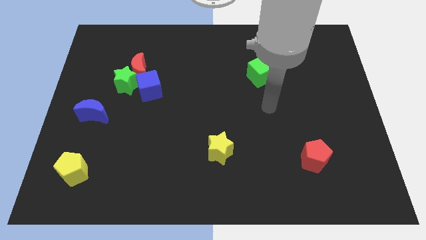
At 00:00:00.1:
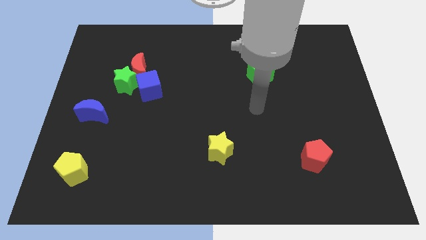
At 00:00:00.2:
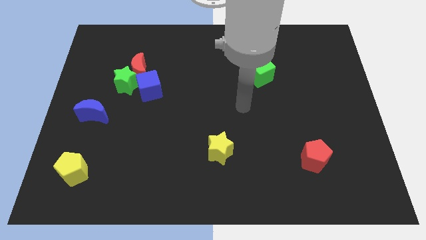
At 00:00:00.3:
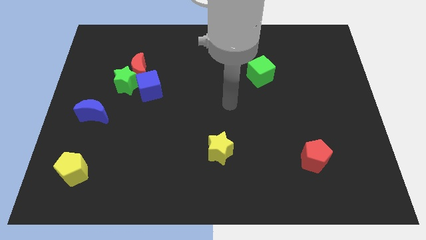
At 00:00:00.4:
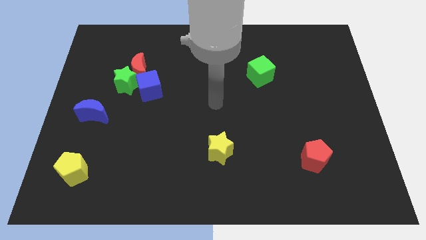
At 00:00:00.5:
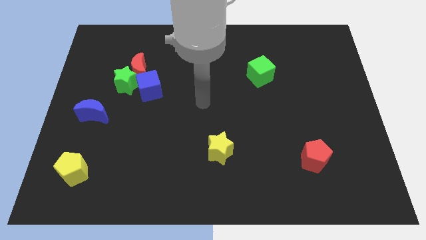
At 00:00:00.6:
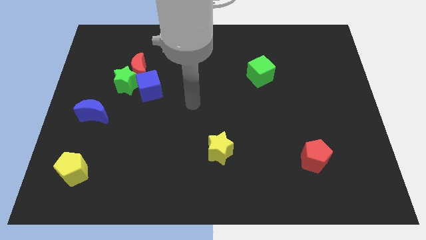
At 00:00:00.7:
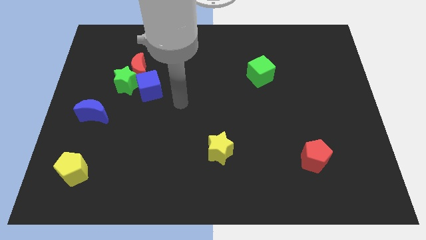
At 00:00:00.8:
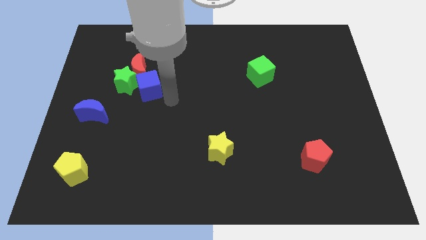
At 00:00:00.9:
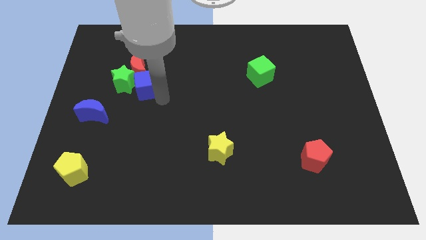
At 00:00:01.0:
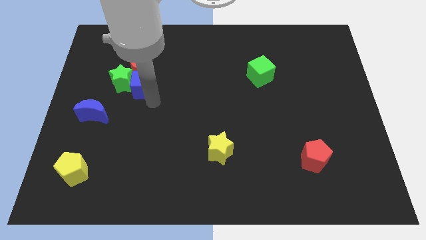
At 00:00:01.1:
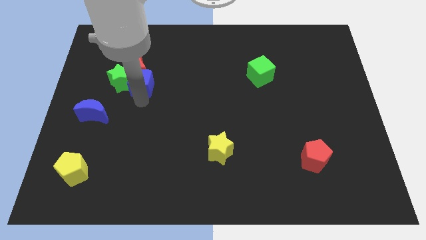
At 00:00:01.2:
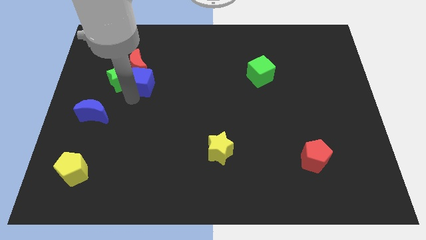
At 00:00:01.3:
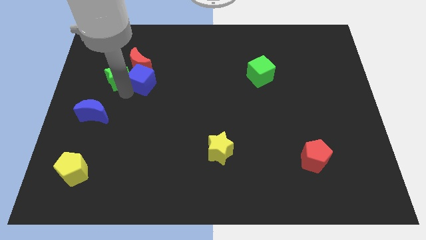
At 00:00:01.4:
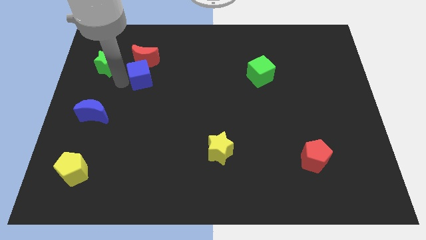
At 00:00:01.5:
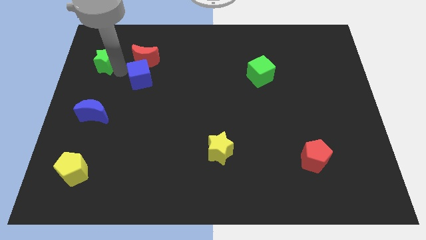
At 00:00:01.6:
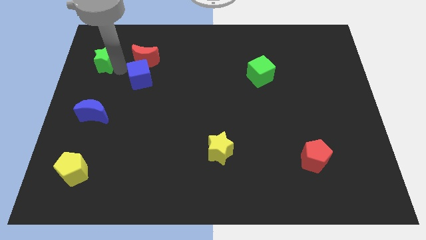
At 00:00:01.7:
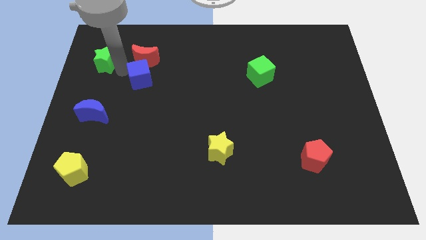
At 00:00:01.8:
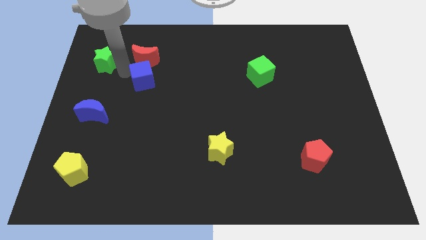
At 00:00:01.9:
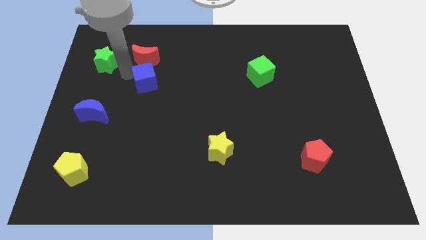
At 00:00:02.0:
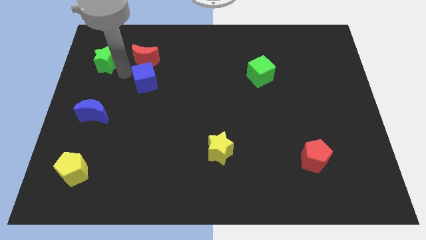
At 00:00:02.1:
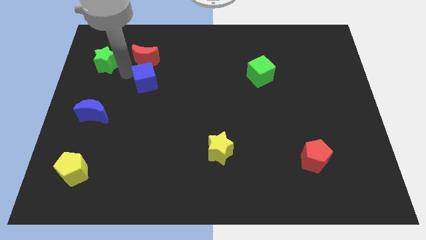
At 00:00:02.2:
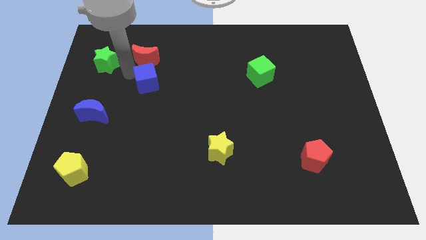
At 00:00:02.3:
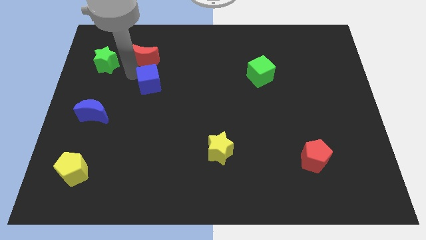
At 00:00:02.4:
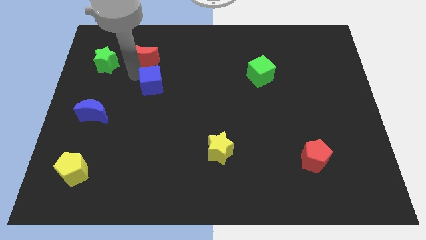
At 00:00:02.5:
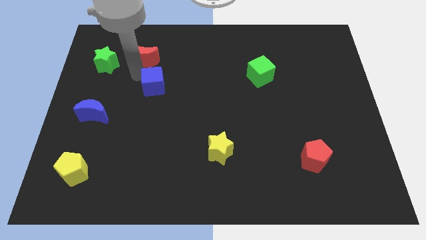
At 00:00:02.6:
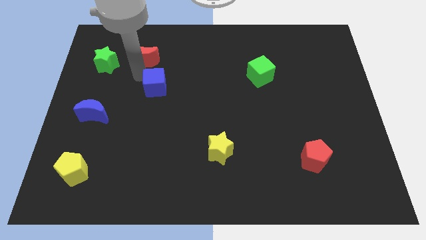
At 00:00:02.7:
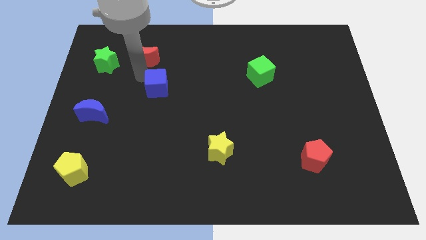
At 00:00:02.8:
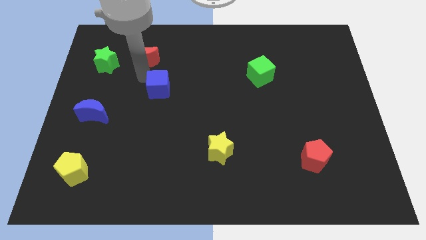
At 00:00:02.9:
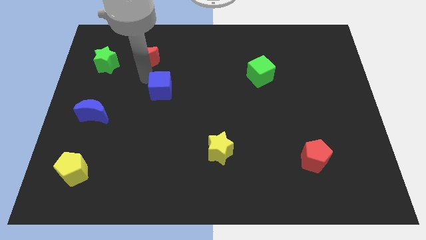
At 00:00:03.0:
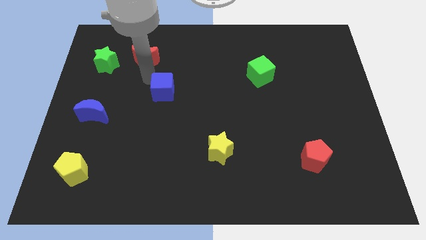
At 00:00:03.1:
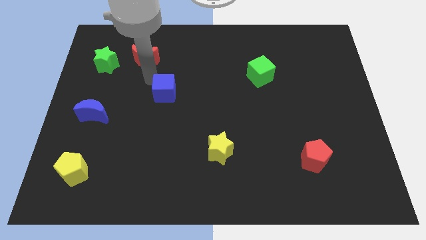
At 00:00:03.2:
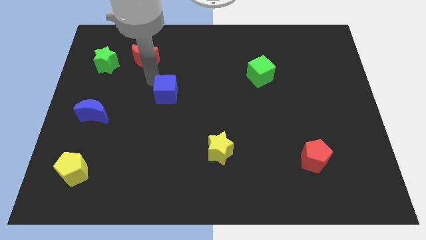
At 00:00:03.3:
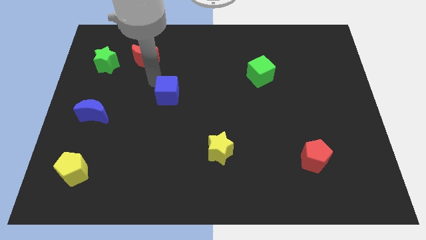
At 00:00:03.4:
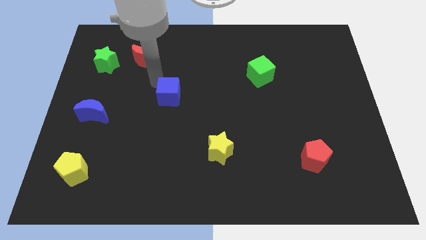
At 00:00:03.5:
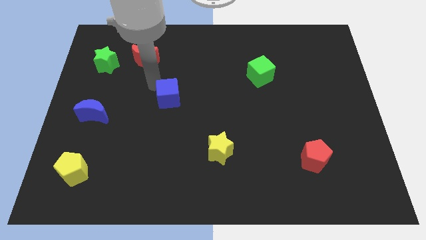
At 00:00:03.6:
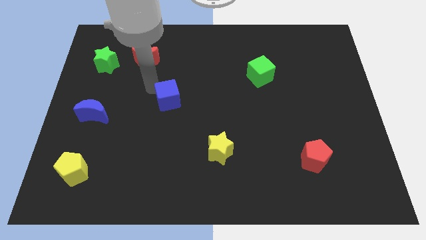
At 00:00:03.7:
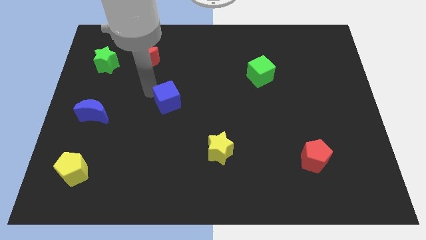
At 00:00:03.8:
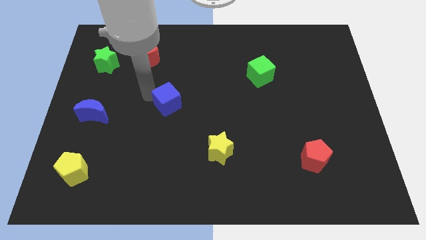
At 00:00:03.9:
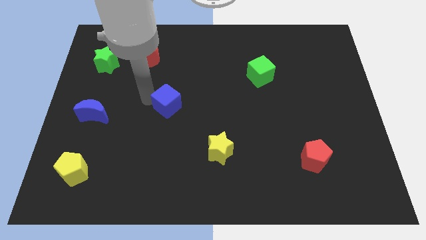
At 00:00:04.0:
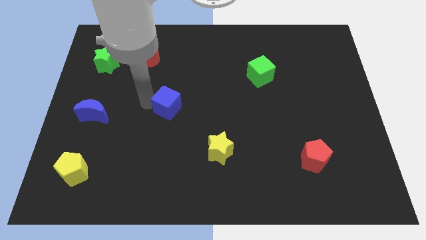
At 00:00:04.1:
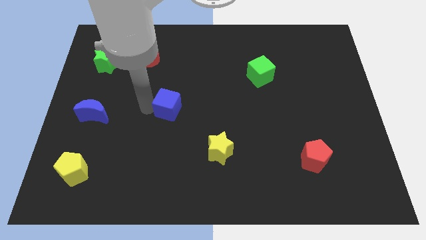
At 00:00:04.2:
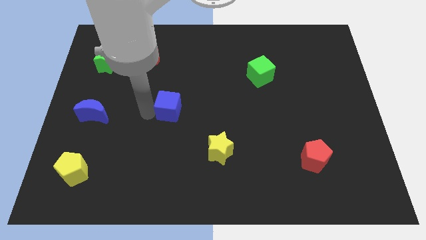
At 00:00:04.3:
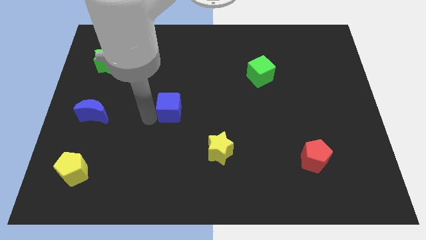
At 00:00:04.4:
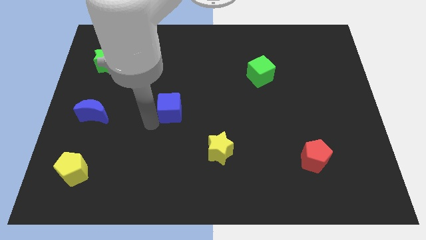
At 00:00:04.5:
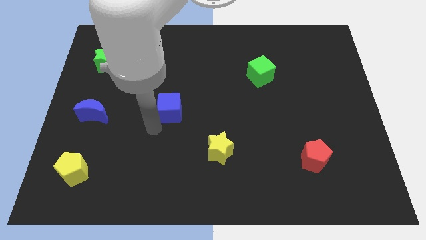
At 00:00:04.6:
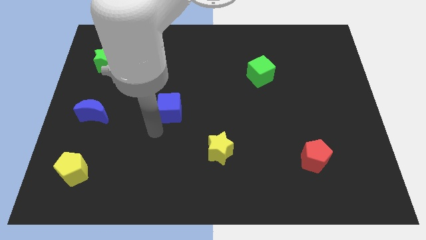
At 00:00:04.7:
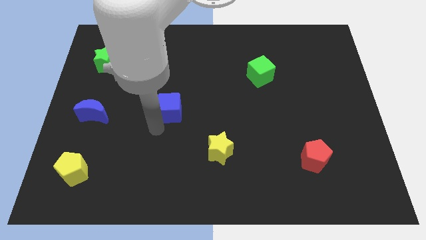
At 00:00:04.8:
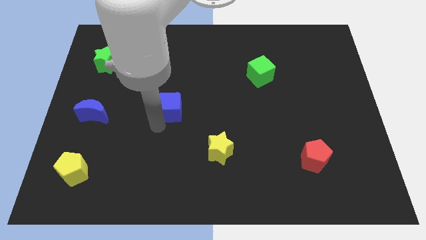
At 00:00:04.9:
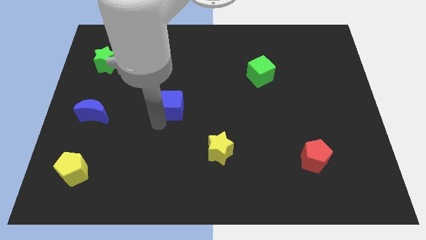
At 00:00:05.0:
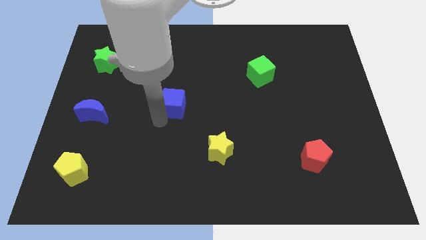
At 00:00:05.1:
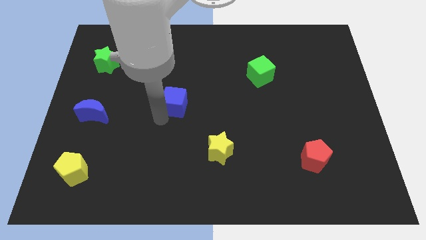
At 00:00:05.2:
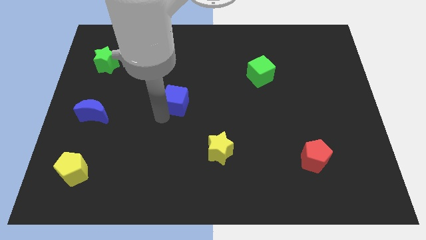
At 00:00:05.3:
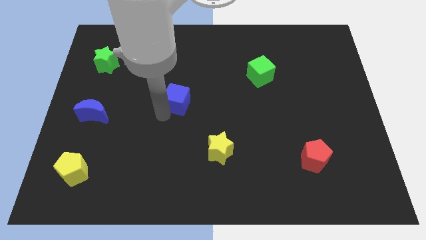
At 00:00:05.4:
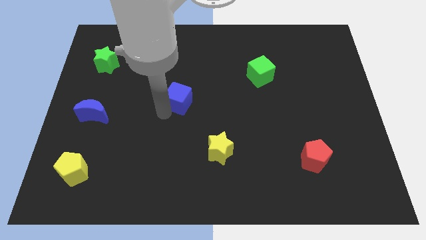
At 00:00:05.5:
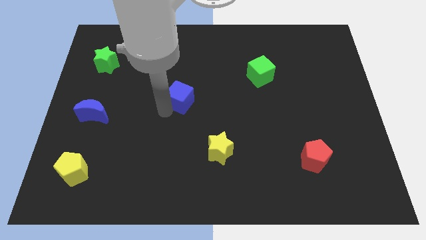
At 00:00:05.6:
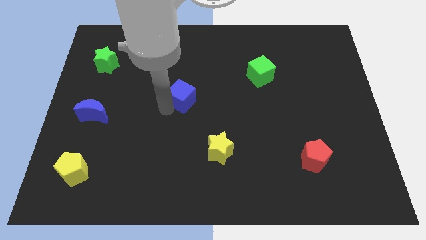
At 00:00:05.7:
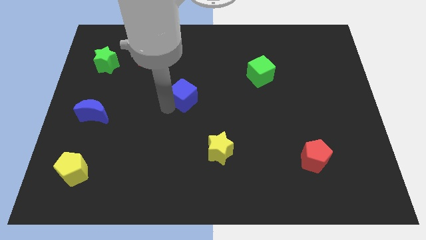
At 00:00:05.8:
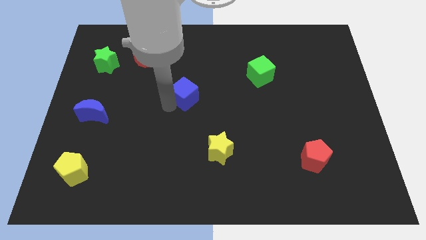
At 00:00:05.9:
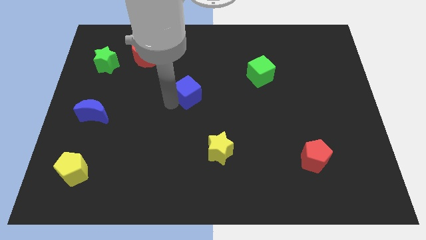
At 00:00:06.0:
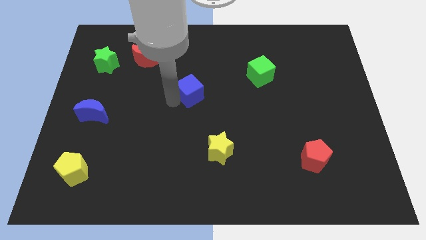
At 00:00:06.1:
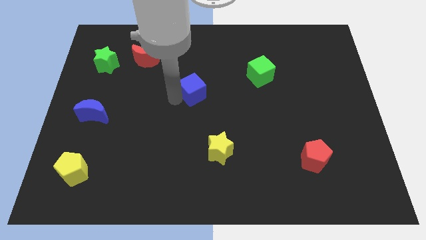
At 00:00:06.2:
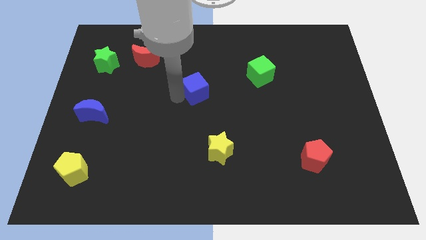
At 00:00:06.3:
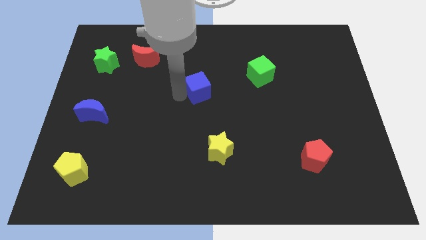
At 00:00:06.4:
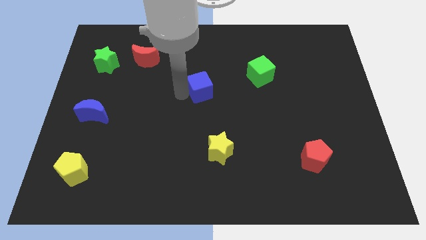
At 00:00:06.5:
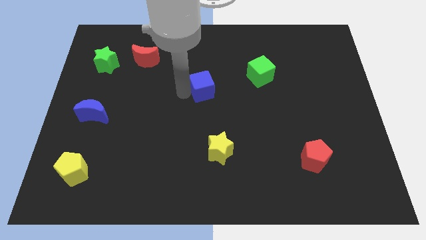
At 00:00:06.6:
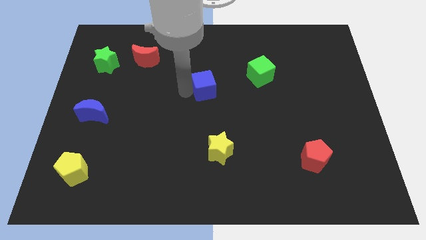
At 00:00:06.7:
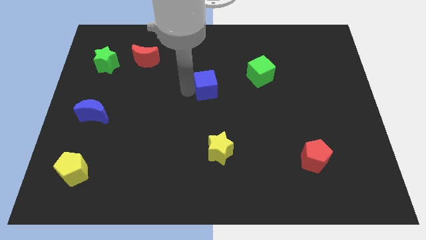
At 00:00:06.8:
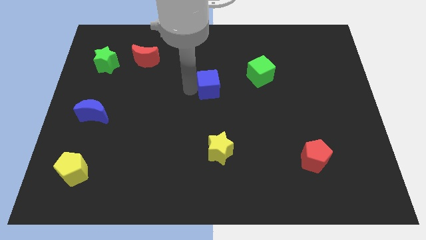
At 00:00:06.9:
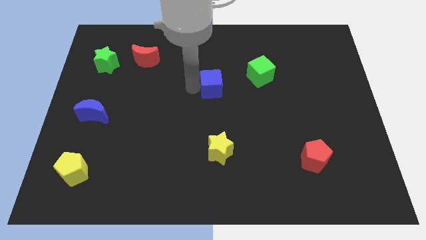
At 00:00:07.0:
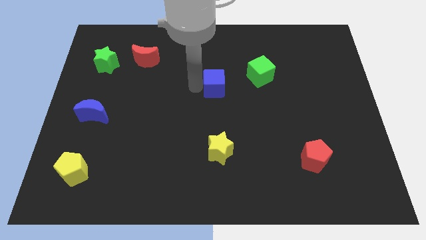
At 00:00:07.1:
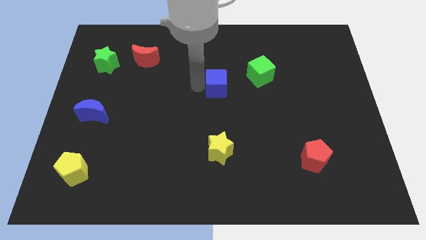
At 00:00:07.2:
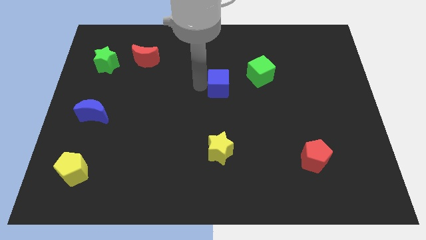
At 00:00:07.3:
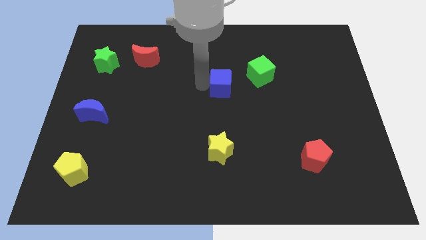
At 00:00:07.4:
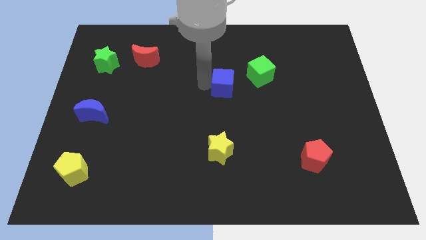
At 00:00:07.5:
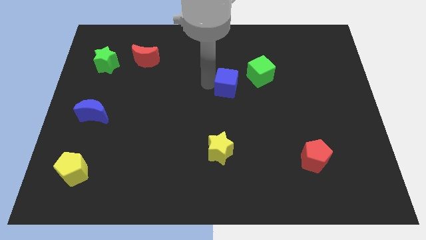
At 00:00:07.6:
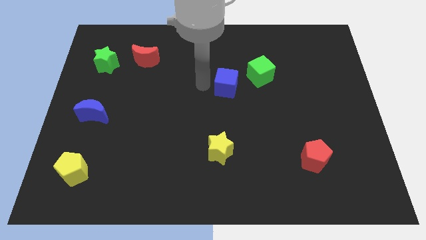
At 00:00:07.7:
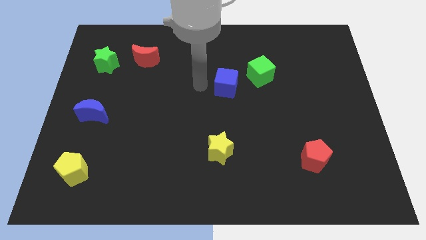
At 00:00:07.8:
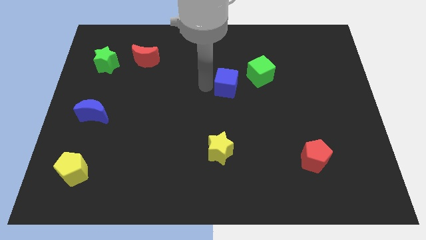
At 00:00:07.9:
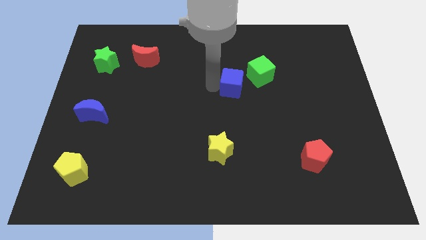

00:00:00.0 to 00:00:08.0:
move the blue cube to the right
